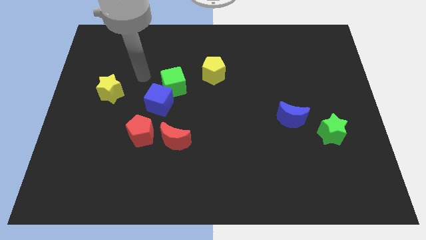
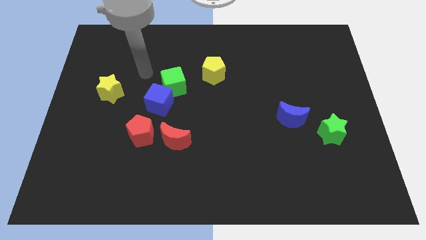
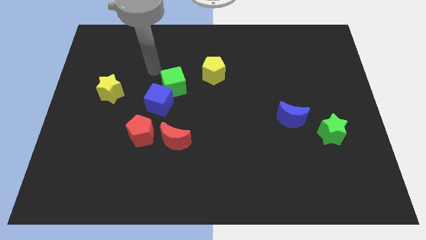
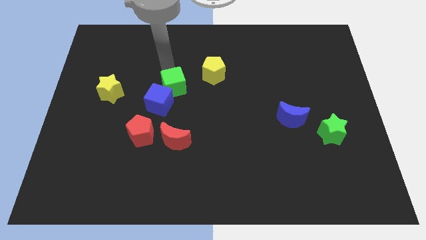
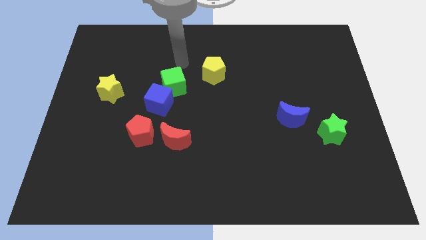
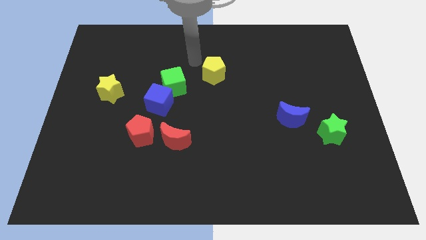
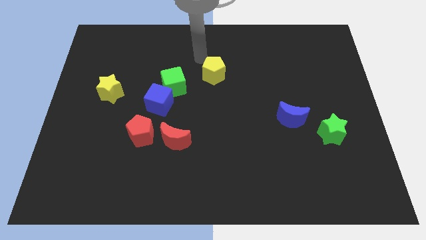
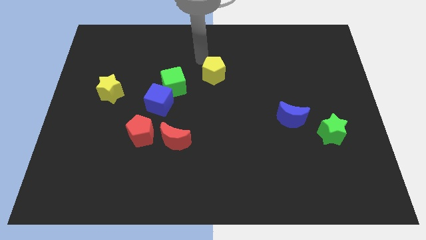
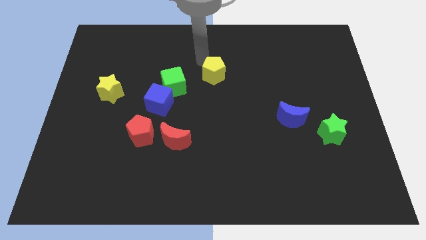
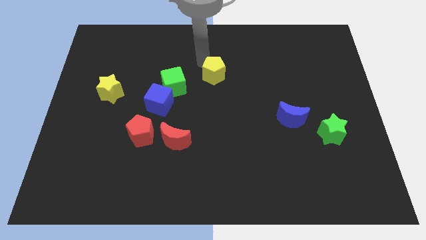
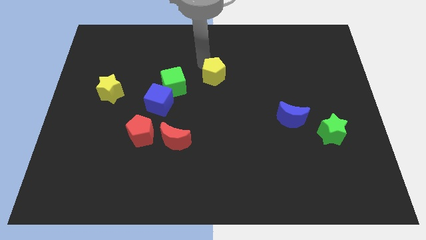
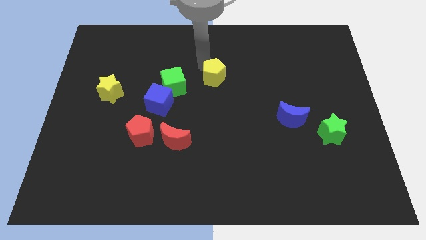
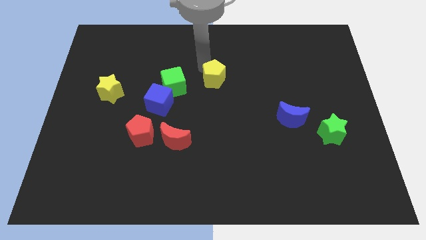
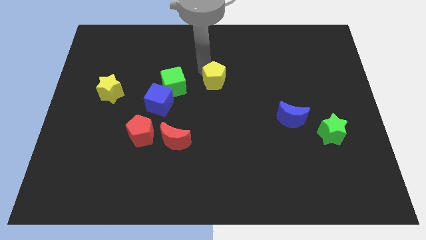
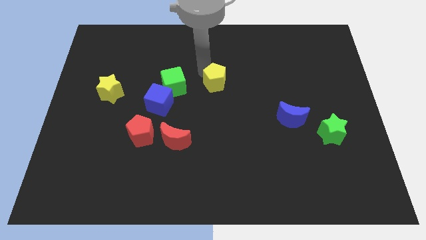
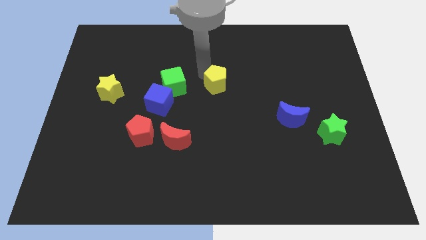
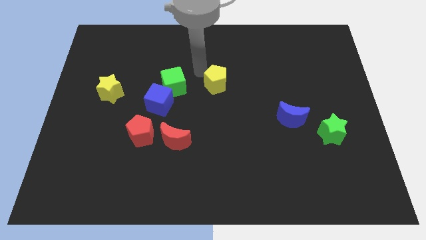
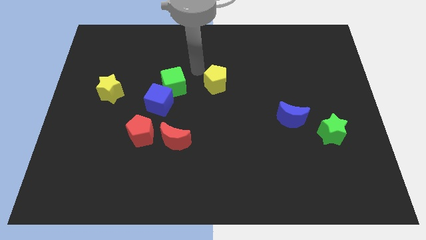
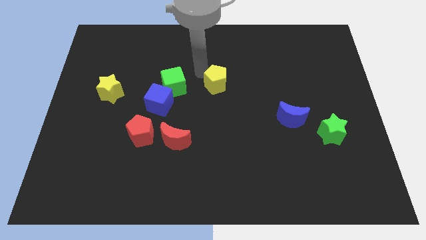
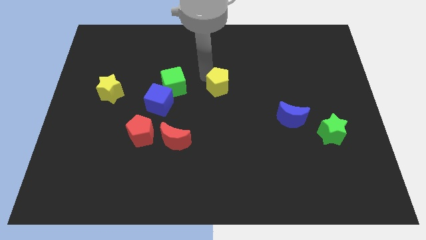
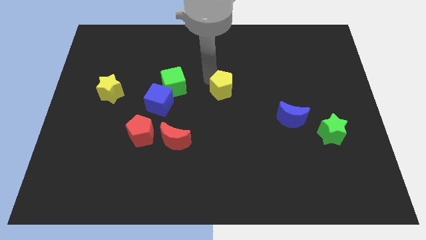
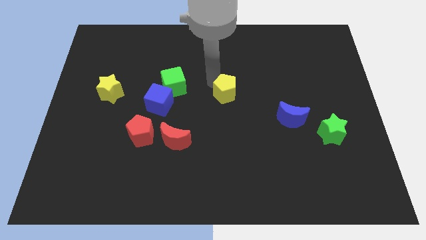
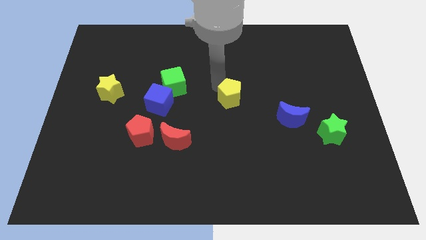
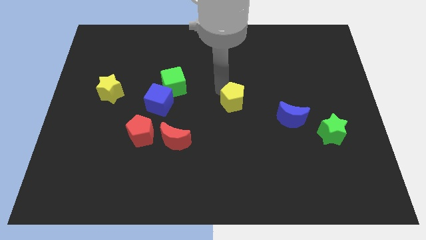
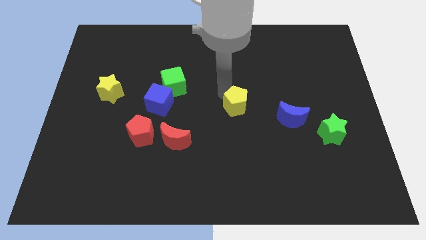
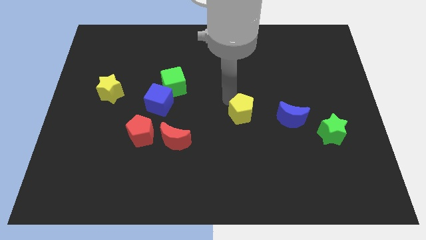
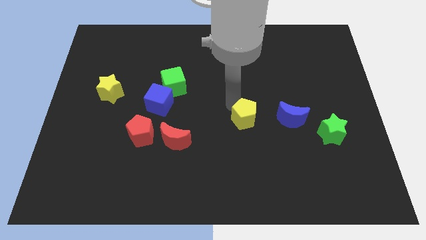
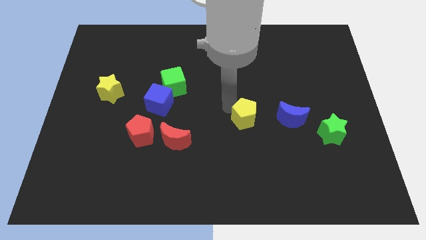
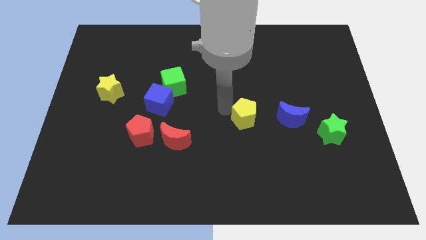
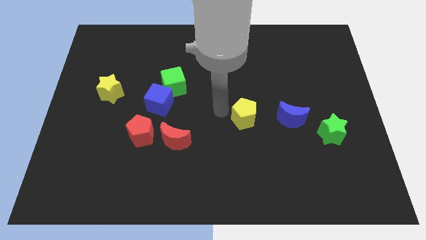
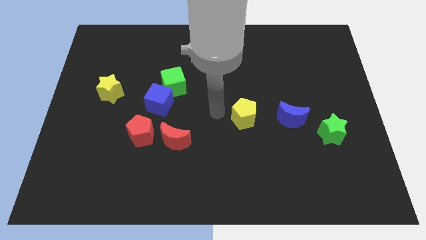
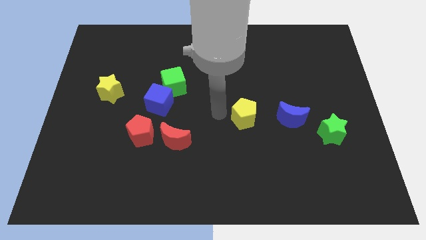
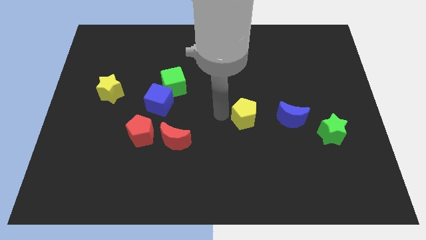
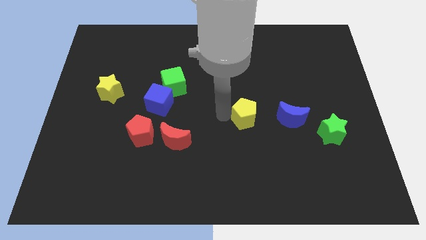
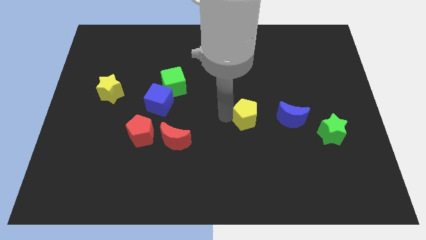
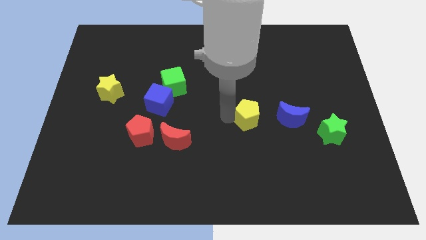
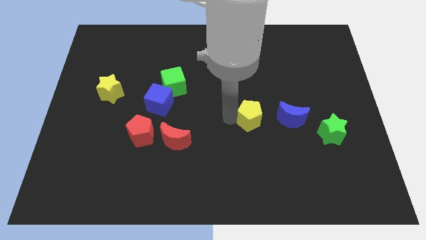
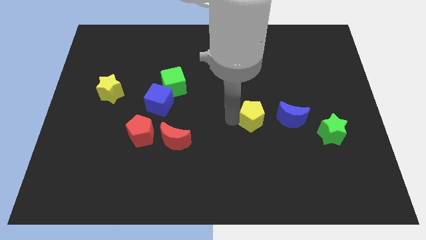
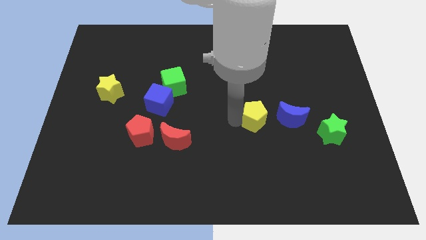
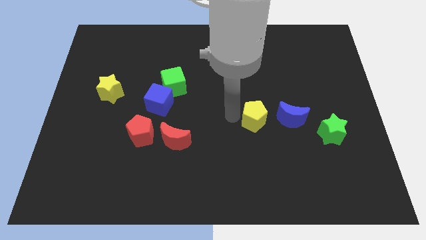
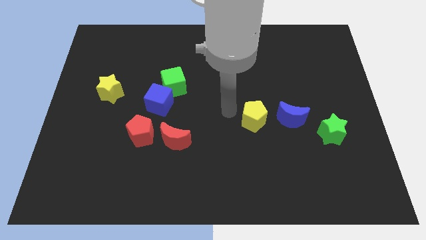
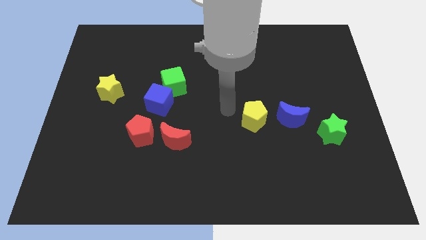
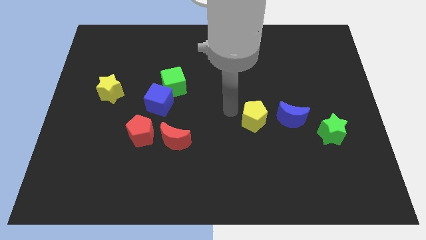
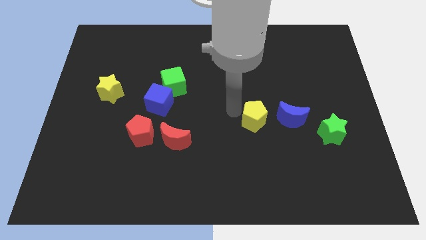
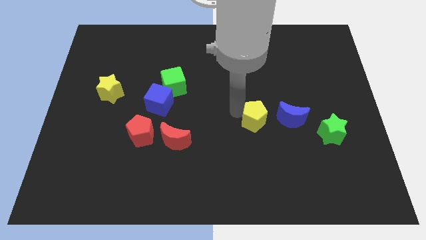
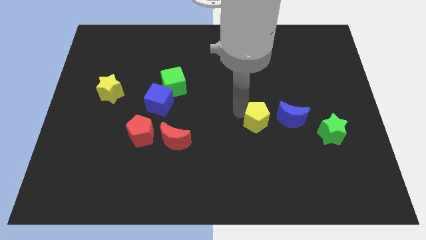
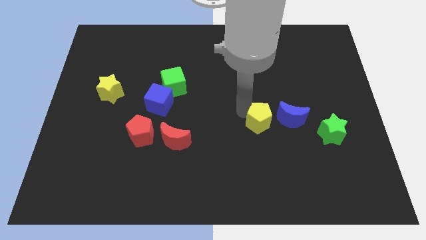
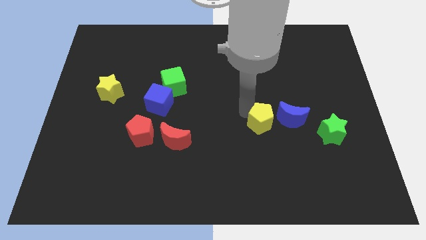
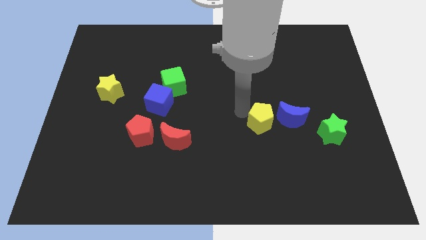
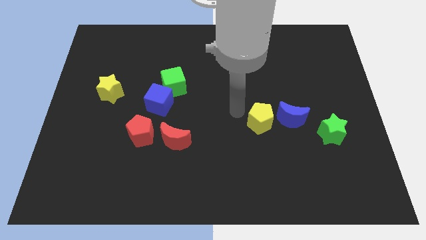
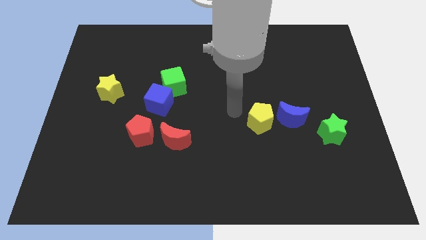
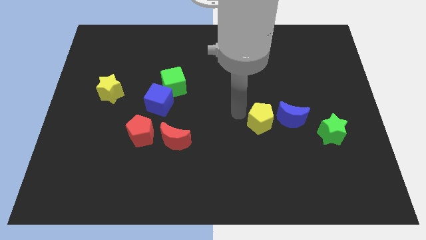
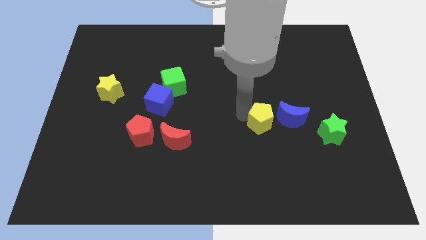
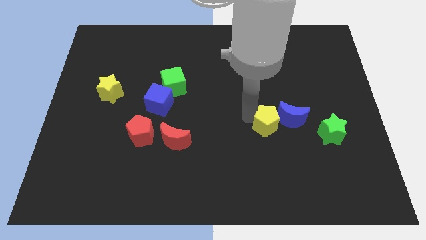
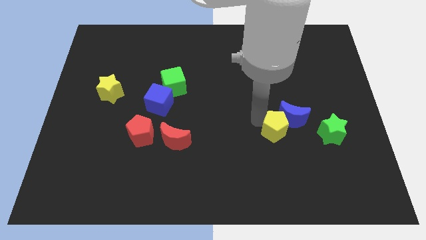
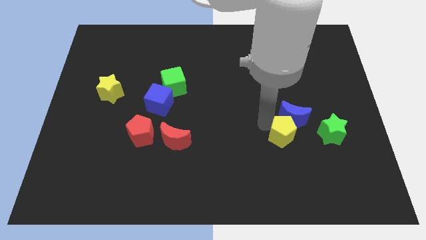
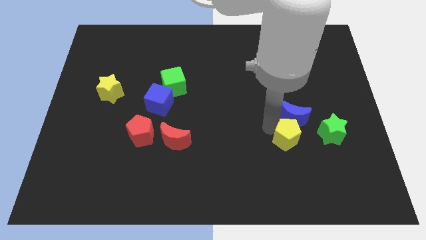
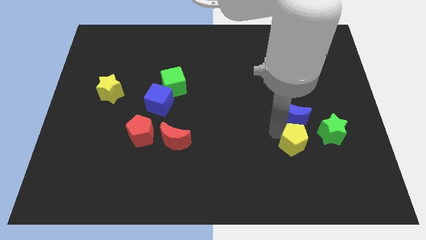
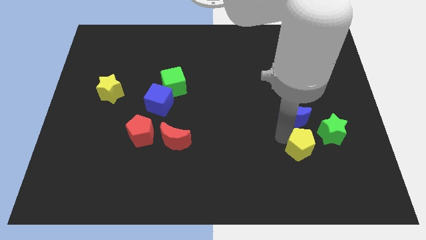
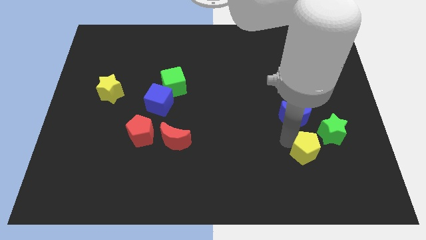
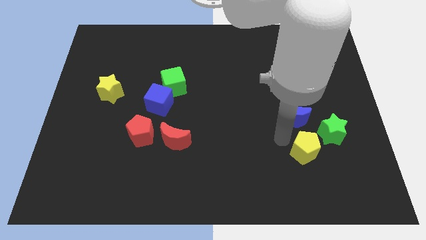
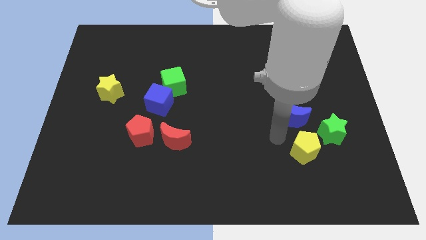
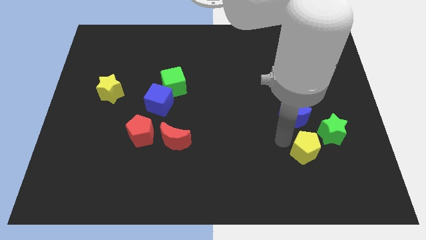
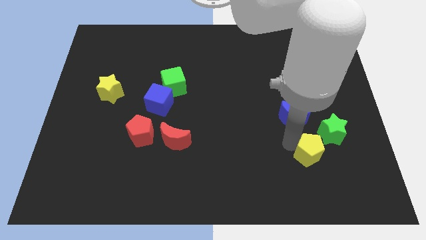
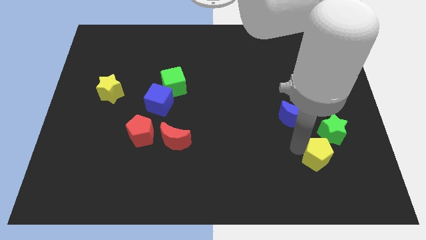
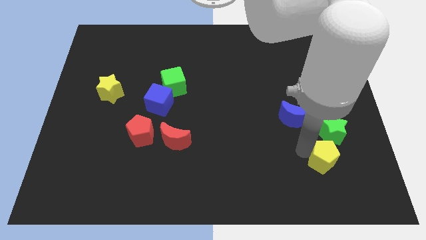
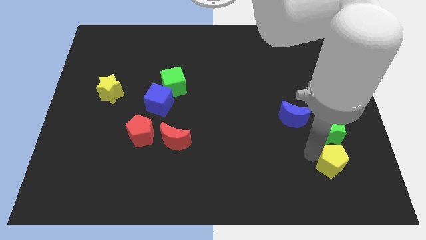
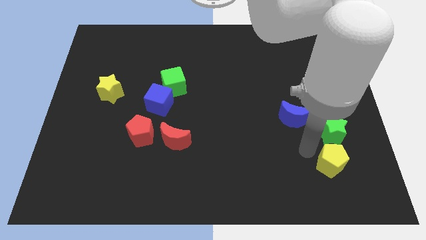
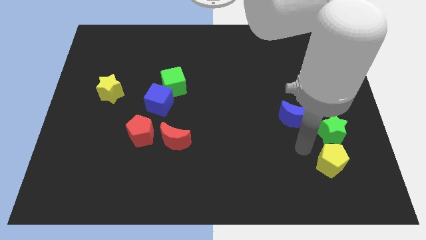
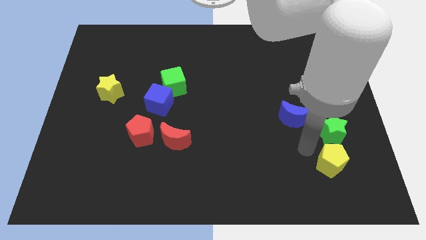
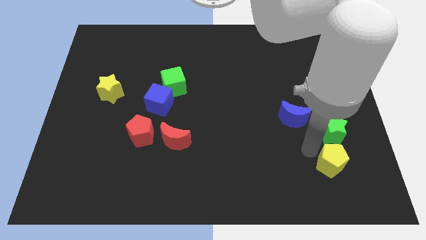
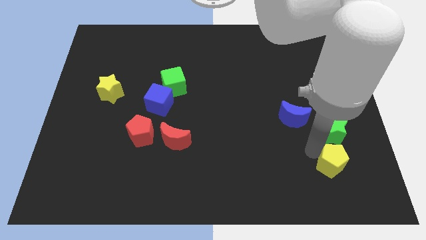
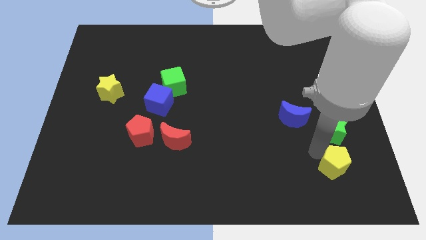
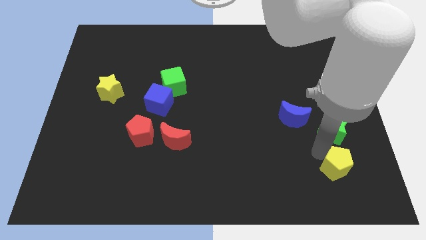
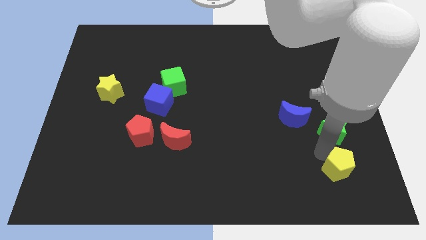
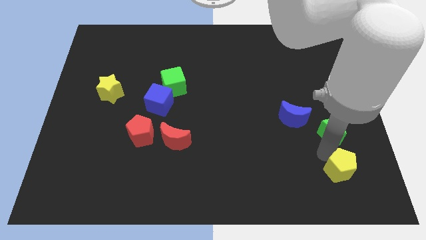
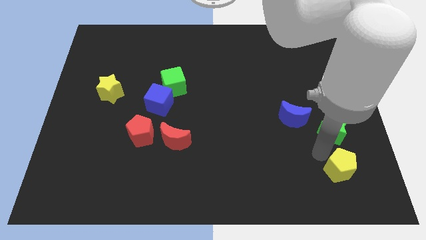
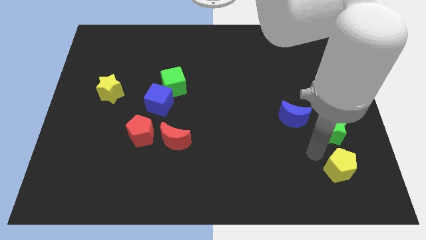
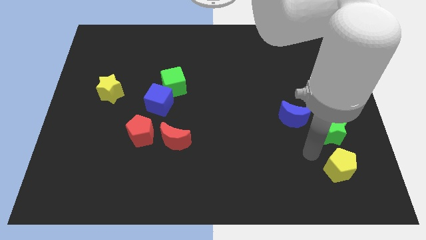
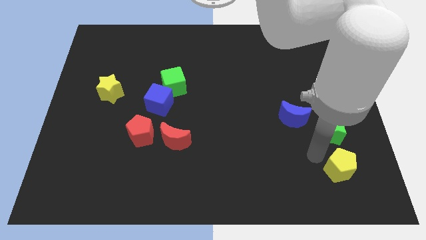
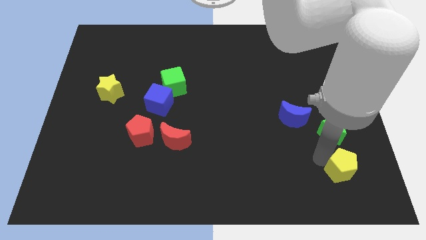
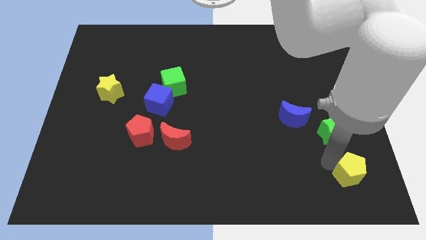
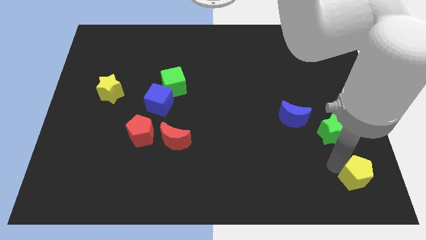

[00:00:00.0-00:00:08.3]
push the yellow pentagon to the bottom right of the board
